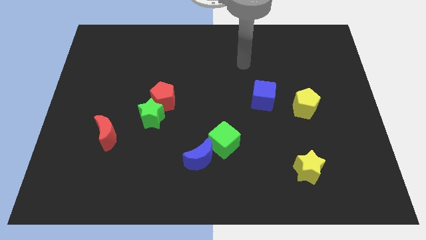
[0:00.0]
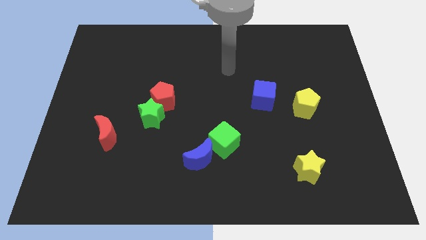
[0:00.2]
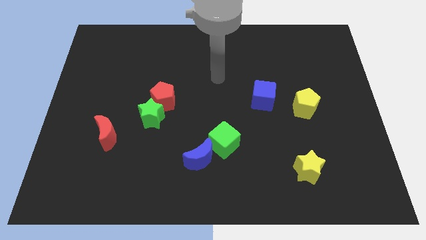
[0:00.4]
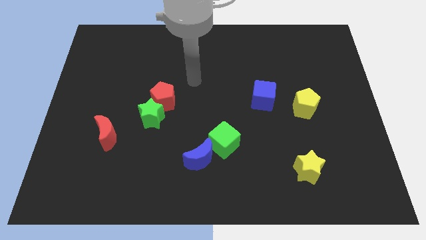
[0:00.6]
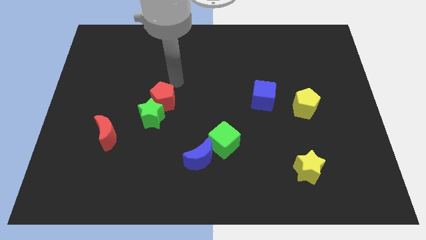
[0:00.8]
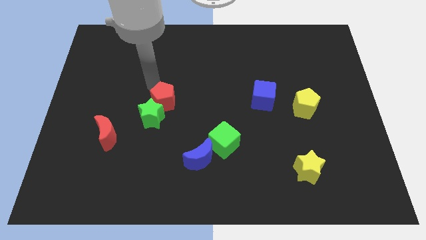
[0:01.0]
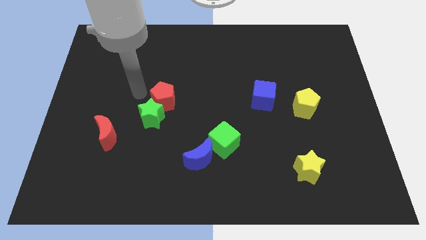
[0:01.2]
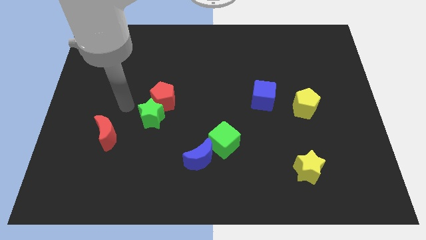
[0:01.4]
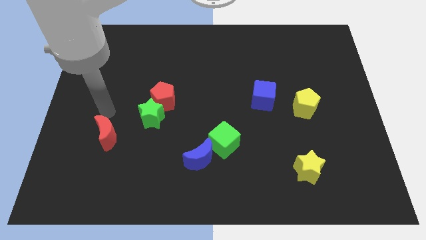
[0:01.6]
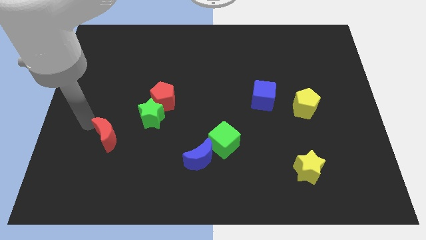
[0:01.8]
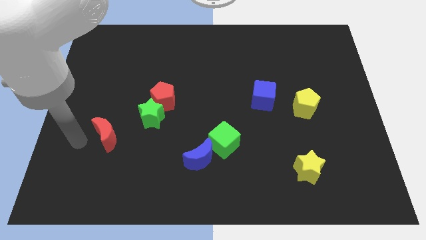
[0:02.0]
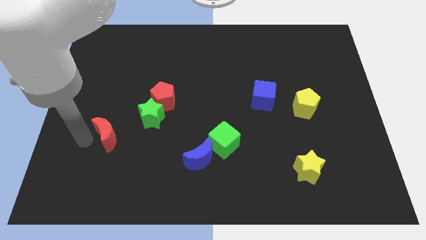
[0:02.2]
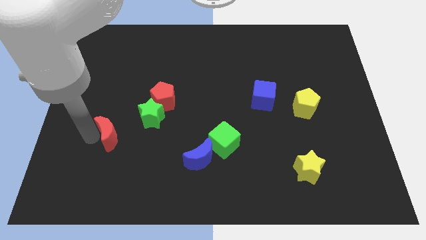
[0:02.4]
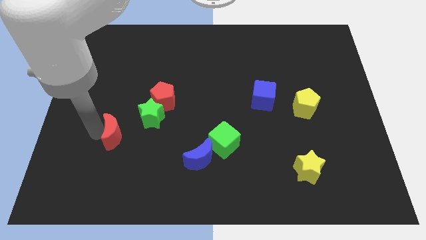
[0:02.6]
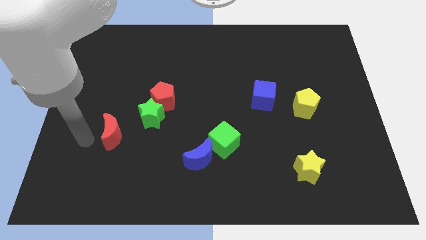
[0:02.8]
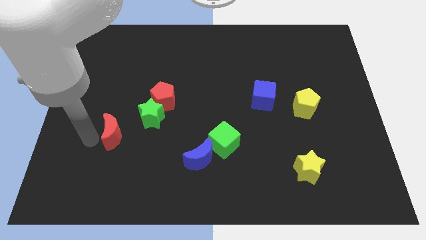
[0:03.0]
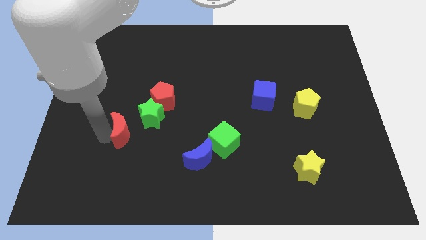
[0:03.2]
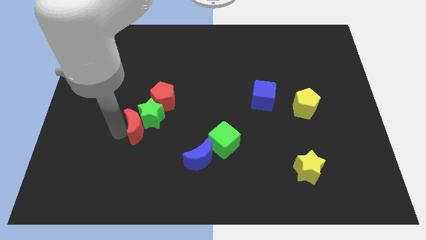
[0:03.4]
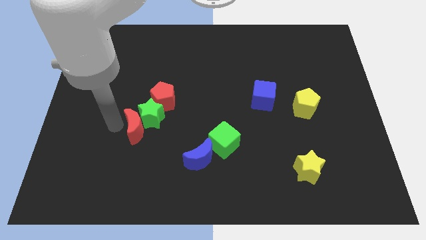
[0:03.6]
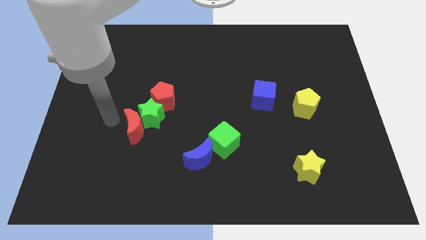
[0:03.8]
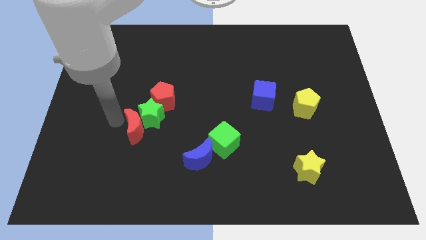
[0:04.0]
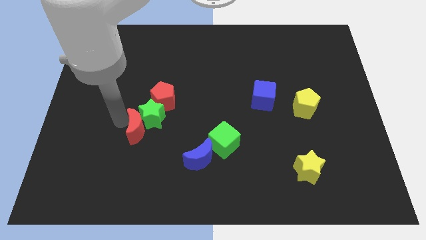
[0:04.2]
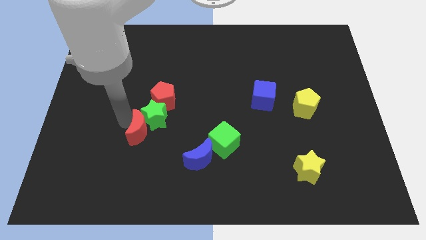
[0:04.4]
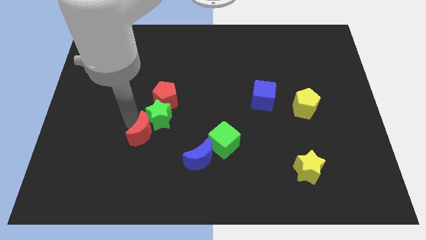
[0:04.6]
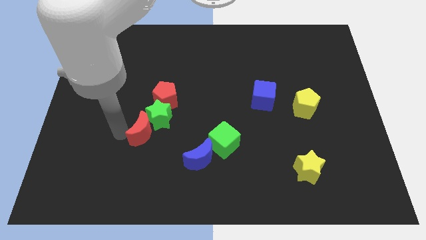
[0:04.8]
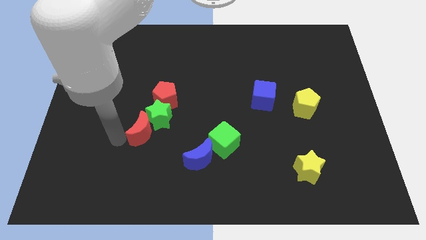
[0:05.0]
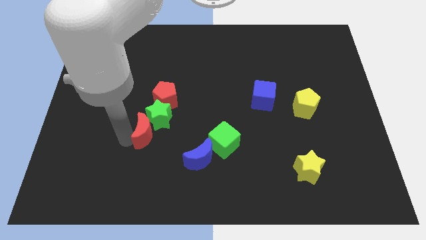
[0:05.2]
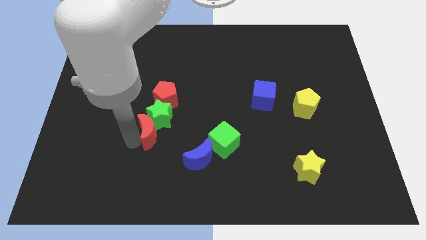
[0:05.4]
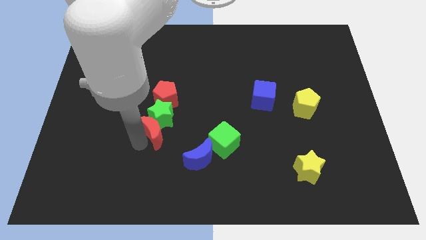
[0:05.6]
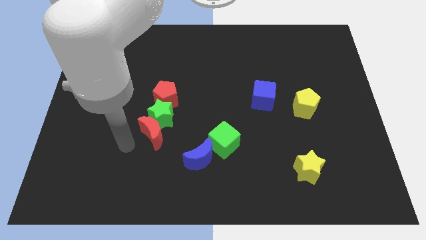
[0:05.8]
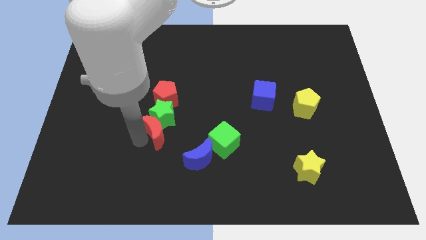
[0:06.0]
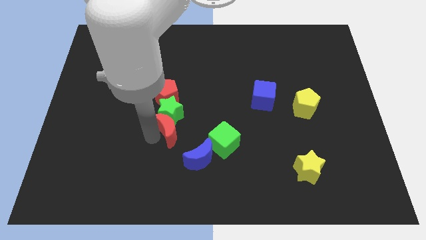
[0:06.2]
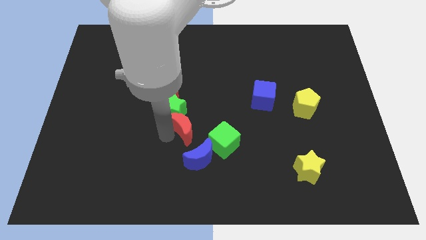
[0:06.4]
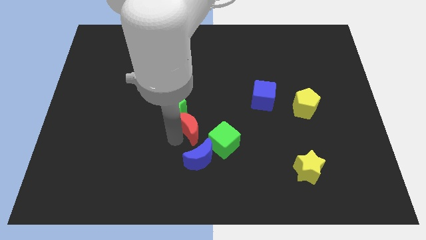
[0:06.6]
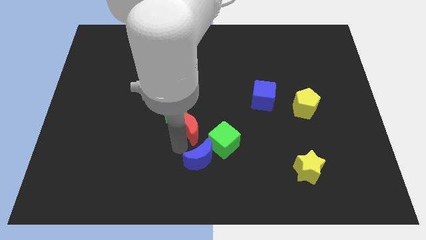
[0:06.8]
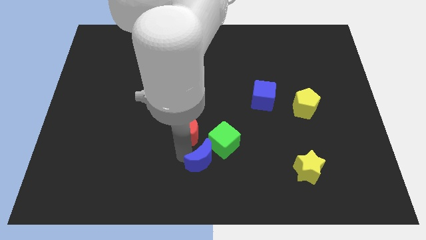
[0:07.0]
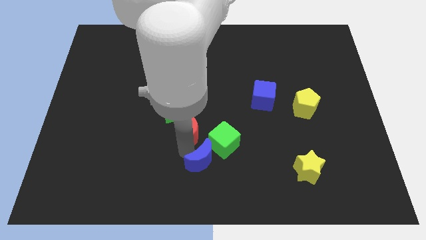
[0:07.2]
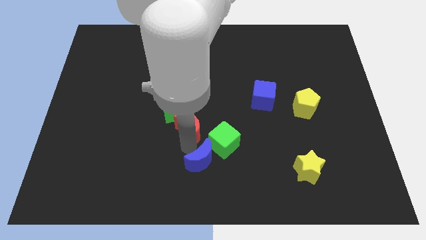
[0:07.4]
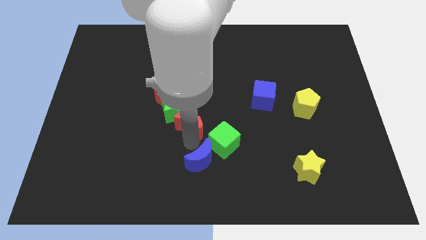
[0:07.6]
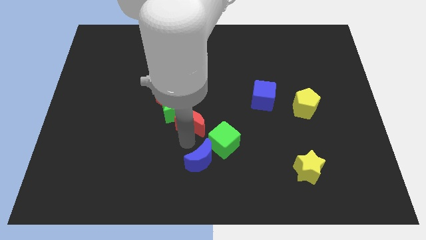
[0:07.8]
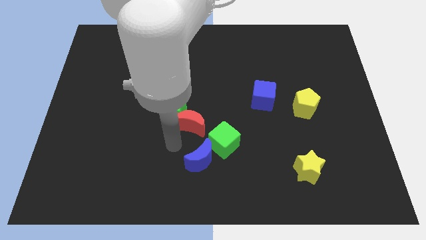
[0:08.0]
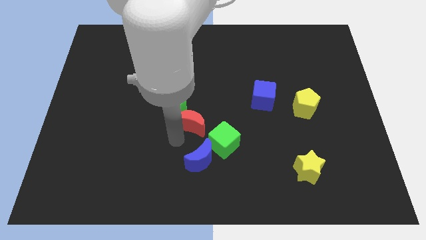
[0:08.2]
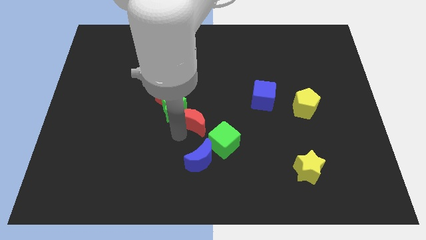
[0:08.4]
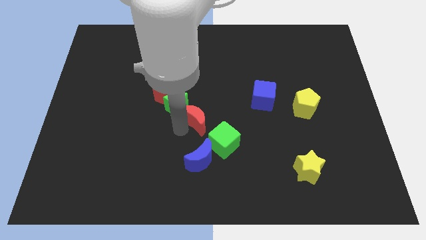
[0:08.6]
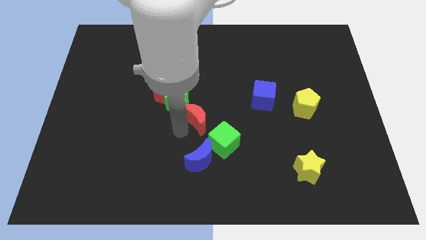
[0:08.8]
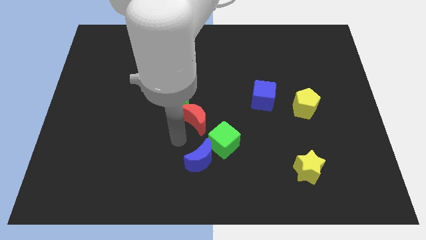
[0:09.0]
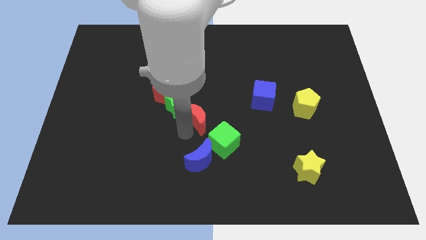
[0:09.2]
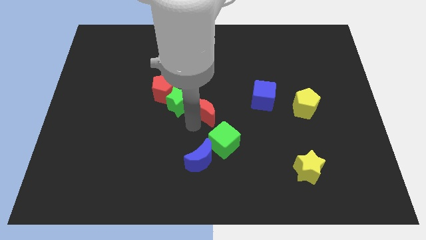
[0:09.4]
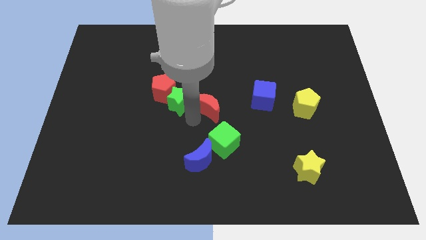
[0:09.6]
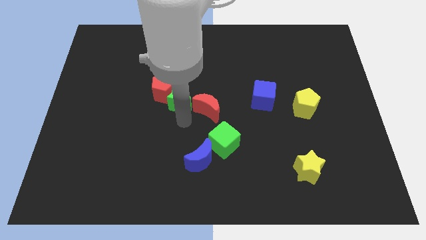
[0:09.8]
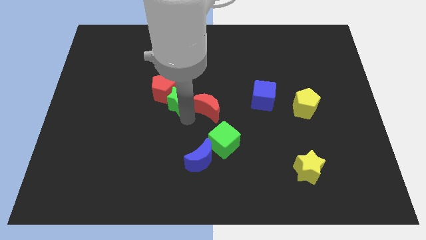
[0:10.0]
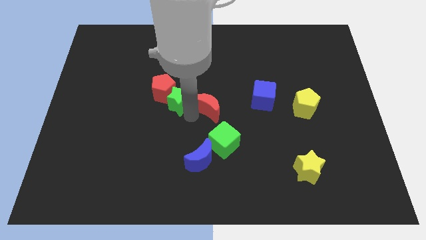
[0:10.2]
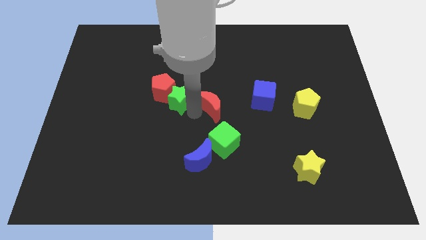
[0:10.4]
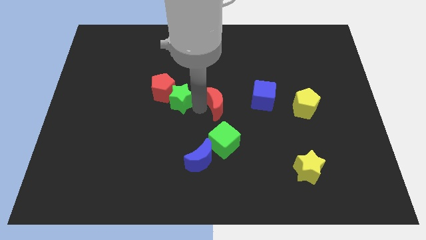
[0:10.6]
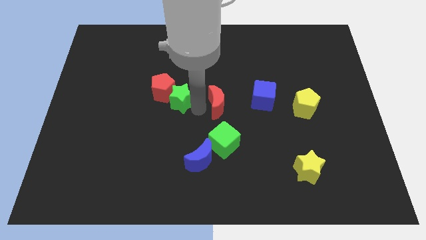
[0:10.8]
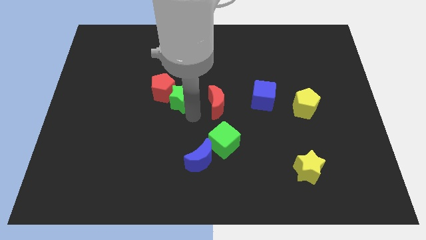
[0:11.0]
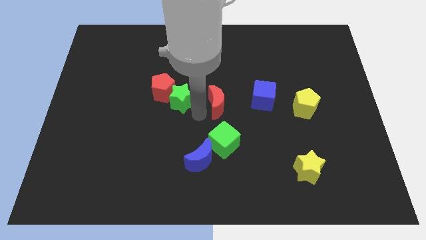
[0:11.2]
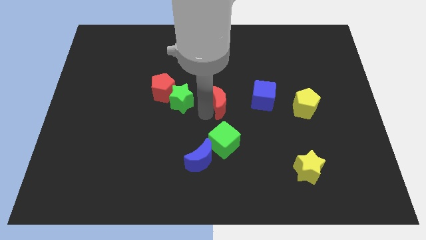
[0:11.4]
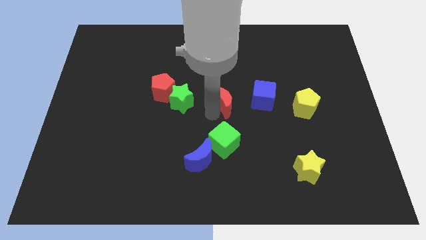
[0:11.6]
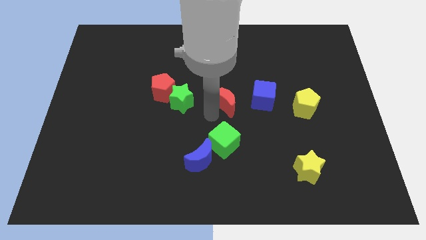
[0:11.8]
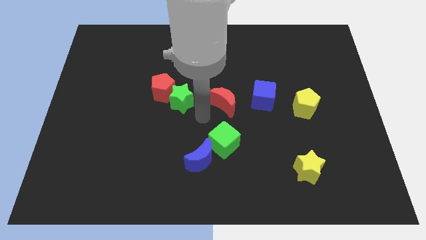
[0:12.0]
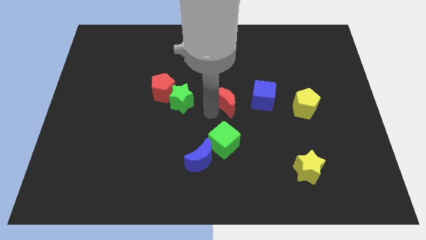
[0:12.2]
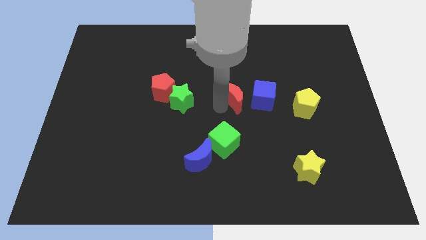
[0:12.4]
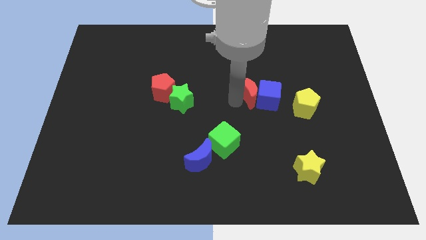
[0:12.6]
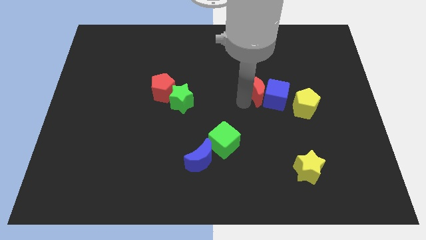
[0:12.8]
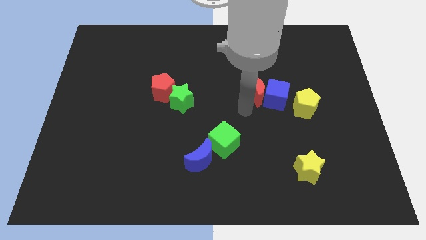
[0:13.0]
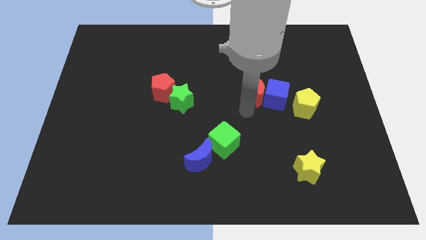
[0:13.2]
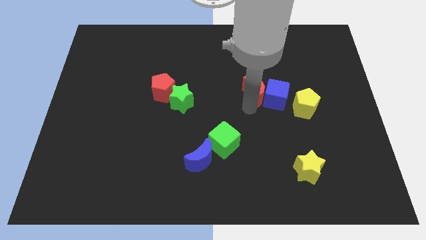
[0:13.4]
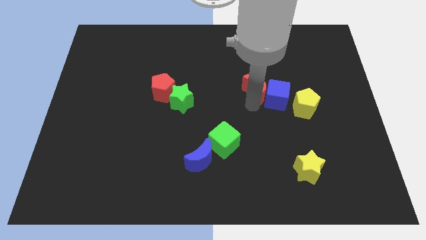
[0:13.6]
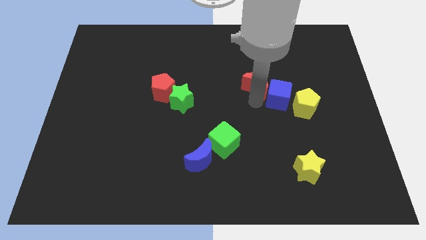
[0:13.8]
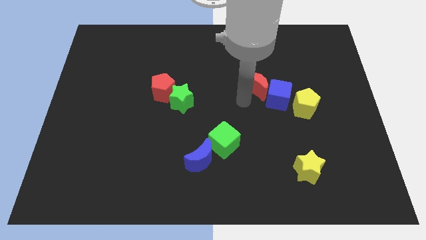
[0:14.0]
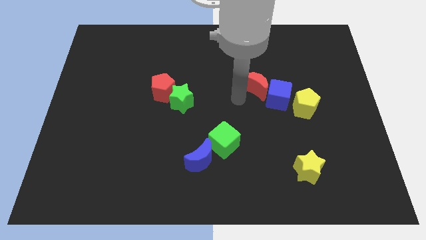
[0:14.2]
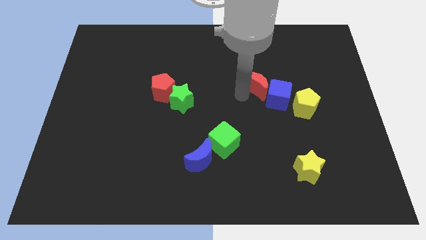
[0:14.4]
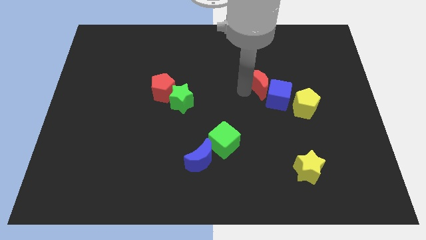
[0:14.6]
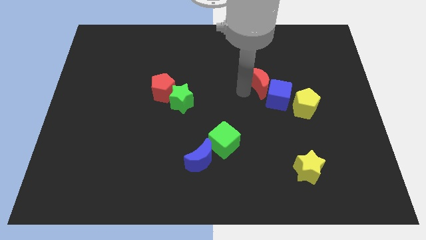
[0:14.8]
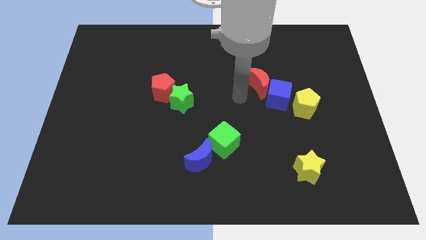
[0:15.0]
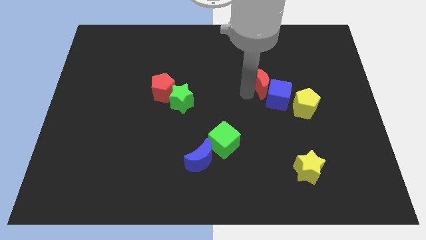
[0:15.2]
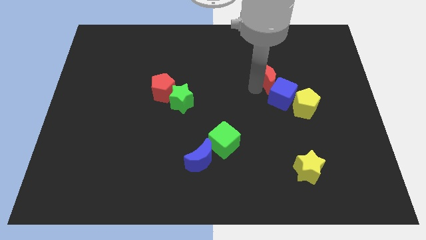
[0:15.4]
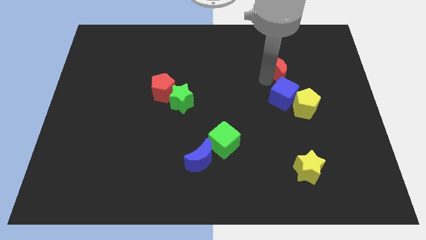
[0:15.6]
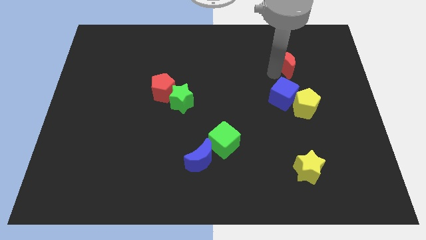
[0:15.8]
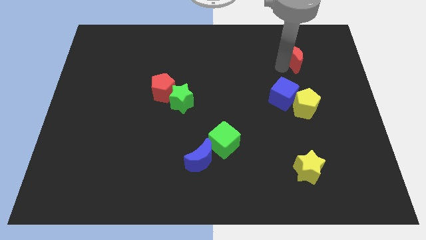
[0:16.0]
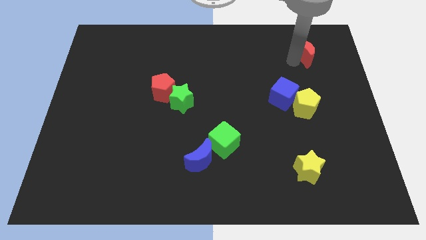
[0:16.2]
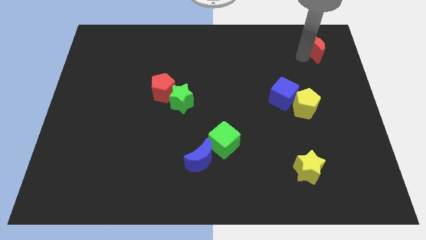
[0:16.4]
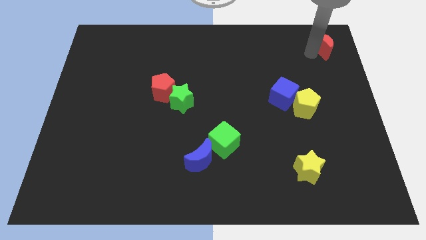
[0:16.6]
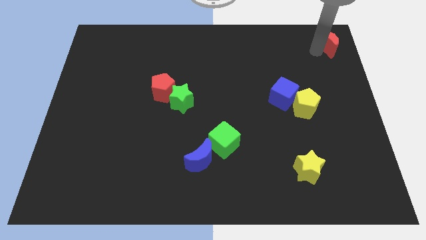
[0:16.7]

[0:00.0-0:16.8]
slide the red moon to the top right
